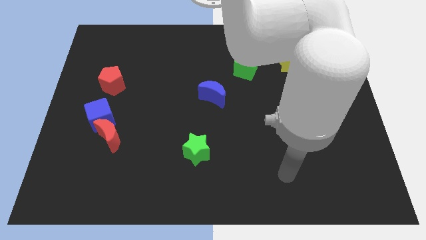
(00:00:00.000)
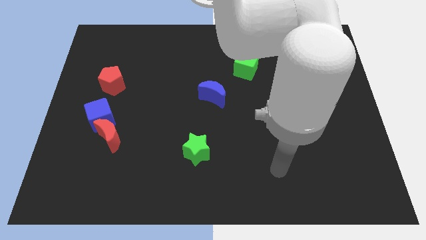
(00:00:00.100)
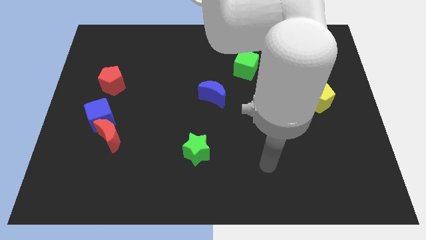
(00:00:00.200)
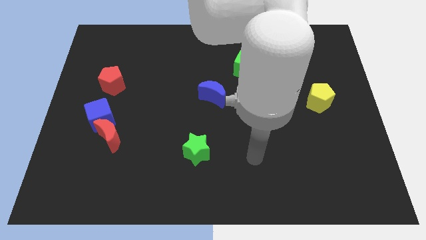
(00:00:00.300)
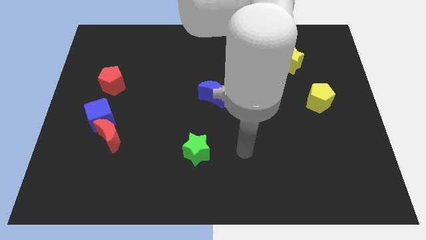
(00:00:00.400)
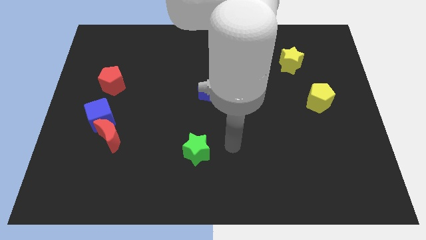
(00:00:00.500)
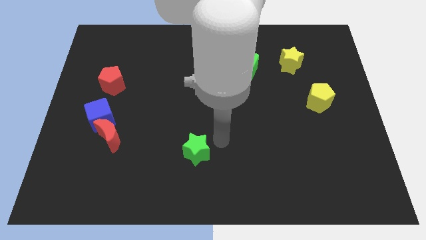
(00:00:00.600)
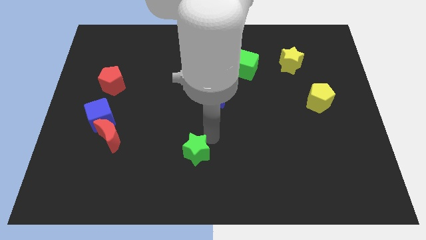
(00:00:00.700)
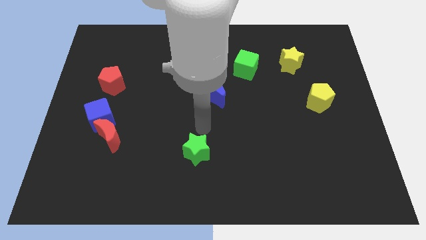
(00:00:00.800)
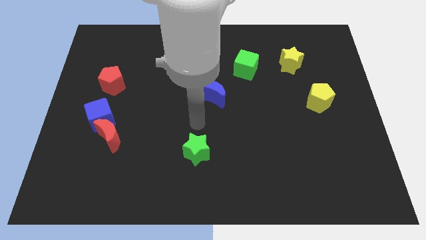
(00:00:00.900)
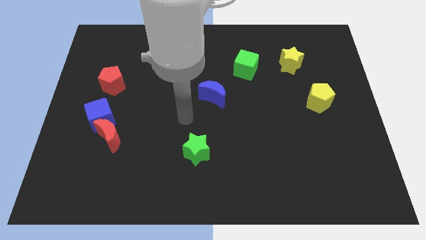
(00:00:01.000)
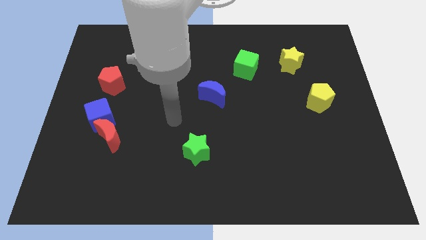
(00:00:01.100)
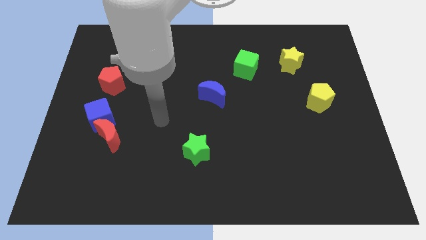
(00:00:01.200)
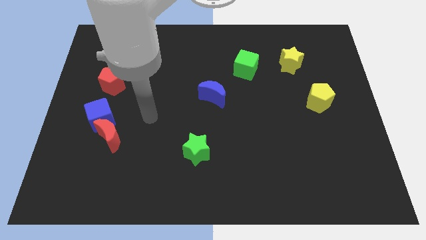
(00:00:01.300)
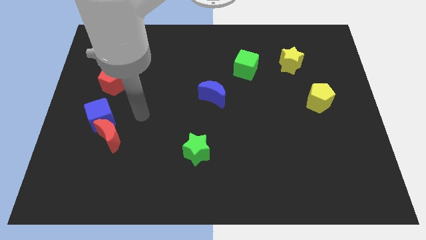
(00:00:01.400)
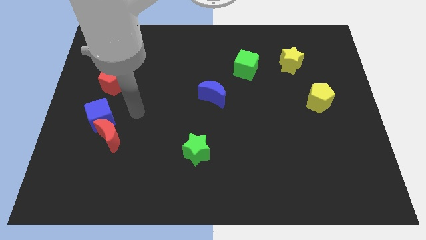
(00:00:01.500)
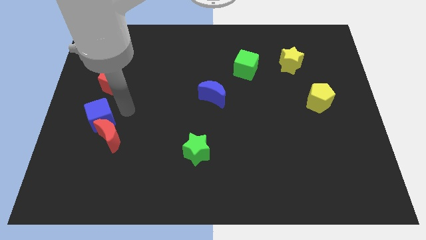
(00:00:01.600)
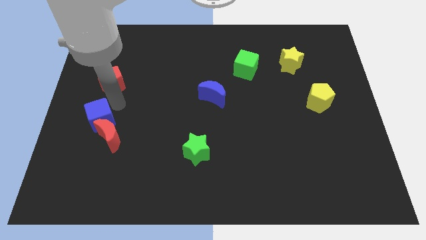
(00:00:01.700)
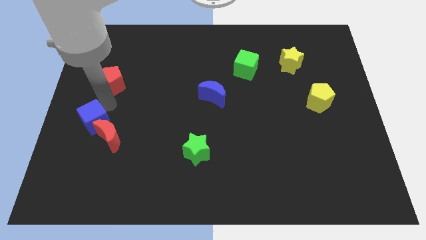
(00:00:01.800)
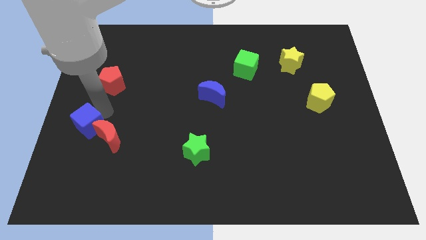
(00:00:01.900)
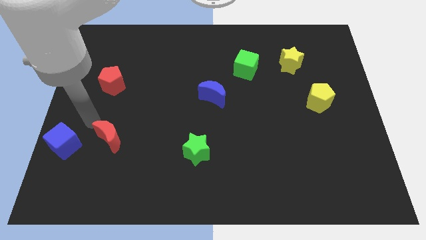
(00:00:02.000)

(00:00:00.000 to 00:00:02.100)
pull the red moon apart from the blue cube

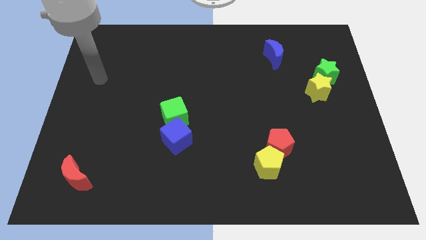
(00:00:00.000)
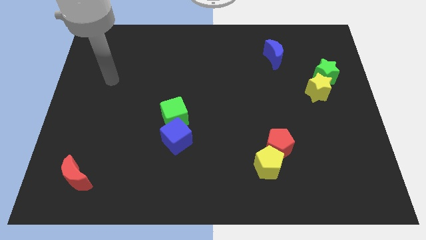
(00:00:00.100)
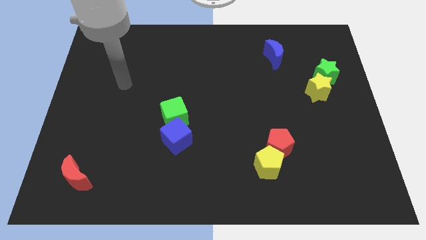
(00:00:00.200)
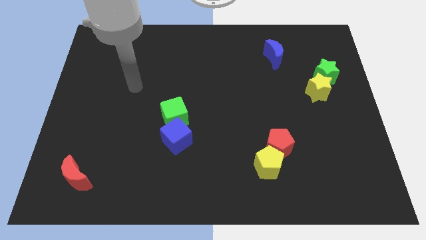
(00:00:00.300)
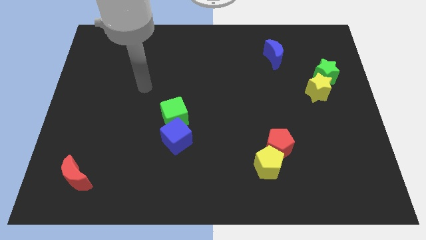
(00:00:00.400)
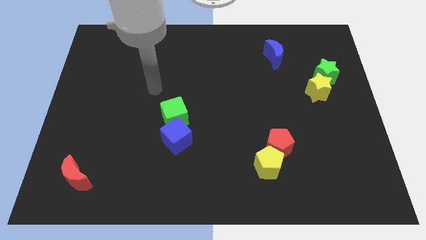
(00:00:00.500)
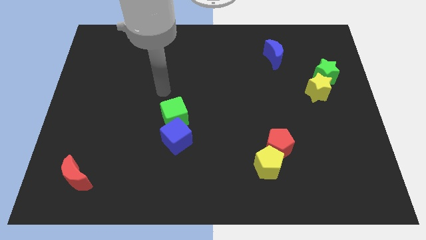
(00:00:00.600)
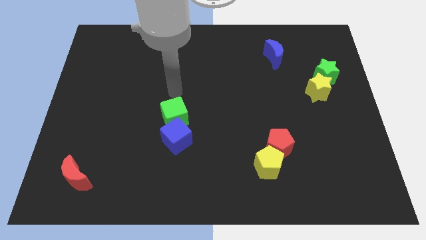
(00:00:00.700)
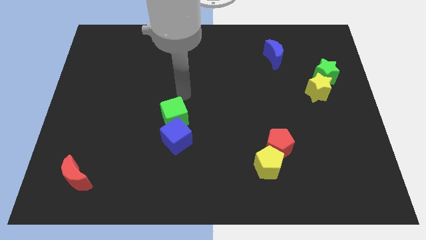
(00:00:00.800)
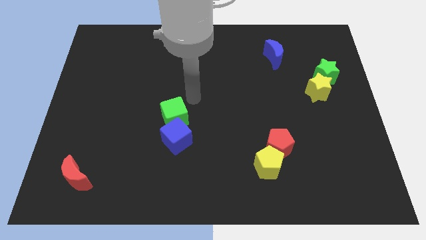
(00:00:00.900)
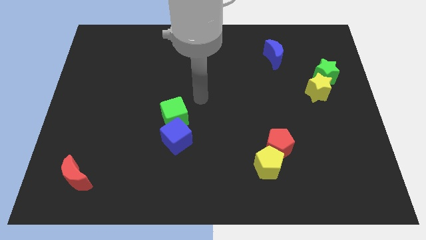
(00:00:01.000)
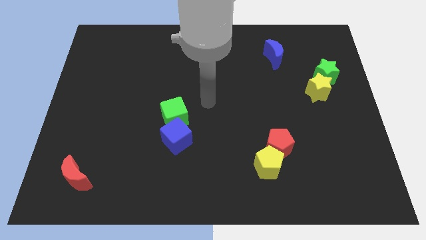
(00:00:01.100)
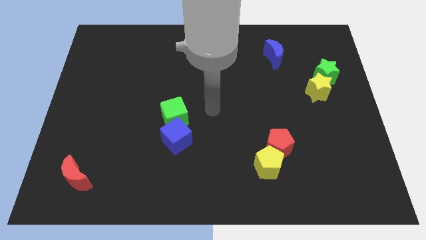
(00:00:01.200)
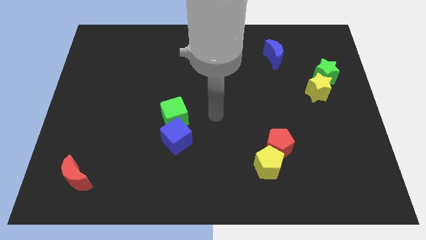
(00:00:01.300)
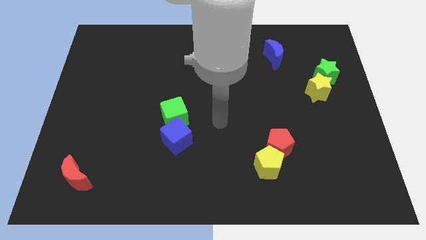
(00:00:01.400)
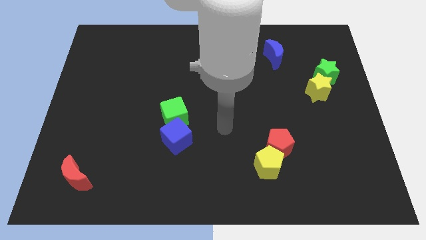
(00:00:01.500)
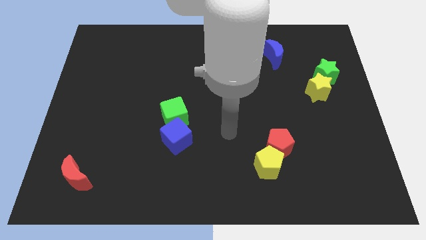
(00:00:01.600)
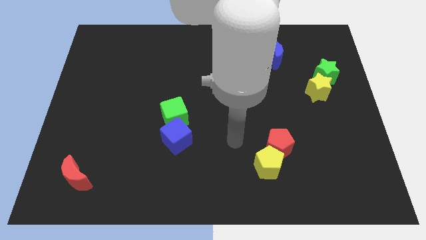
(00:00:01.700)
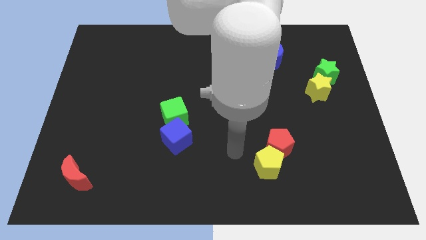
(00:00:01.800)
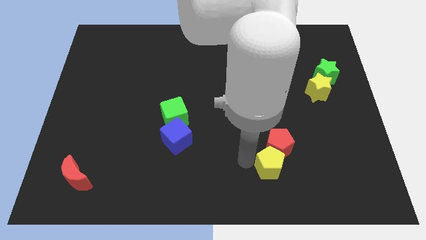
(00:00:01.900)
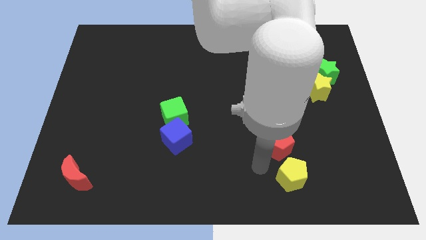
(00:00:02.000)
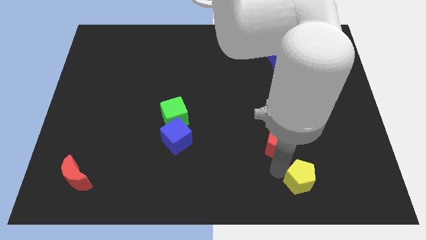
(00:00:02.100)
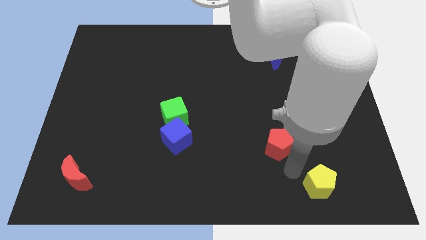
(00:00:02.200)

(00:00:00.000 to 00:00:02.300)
move the red pentagon away from the yellow pentagon

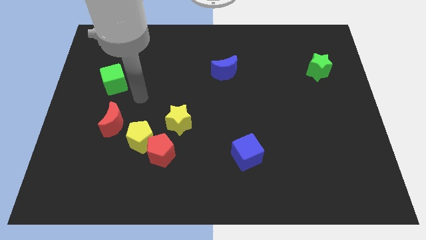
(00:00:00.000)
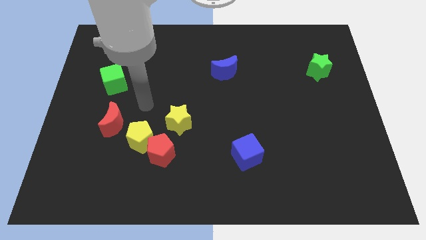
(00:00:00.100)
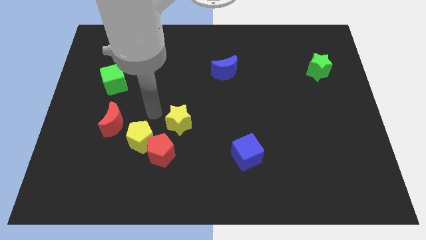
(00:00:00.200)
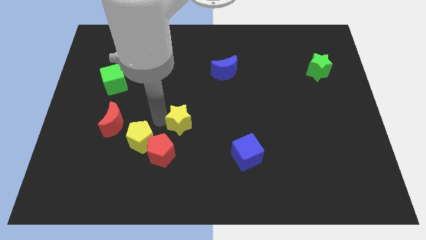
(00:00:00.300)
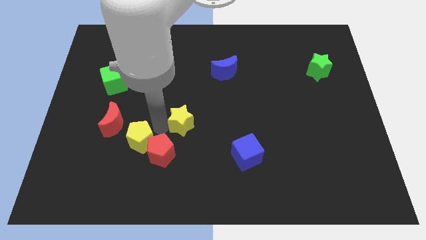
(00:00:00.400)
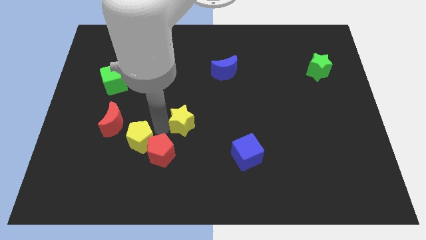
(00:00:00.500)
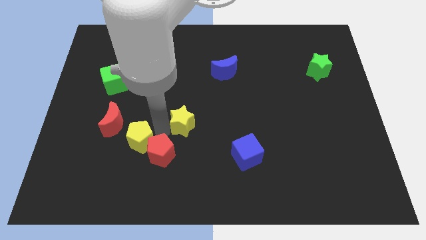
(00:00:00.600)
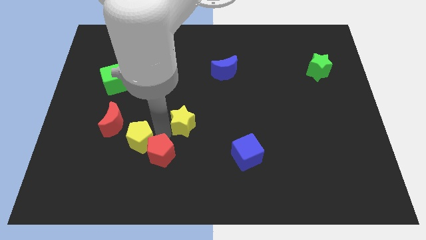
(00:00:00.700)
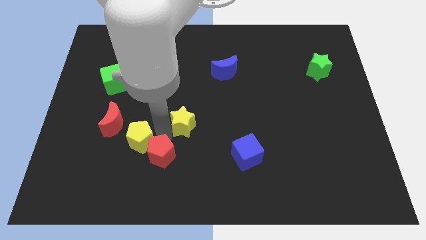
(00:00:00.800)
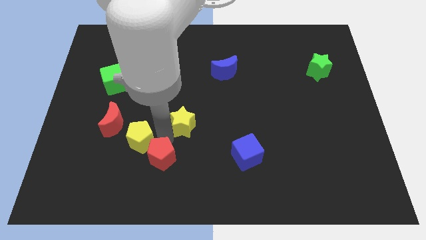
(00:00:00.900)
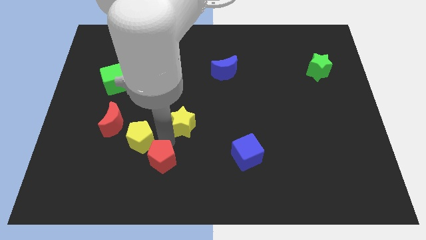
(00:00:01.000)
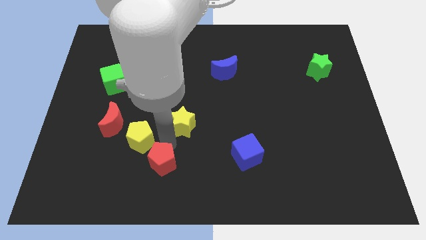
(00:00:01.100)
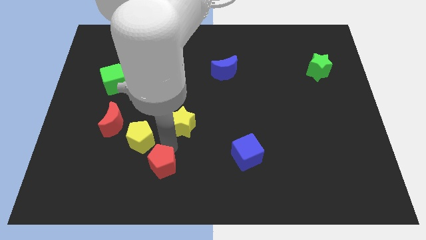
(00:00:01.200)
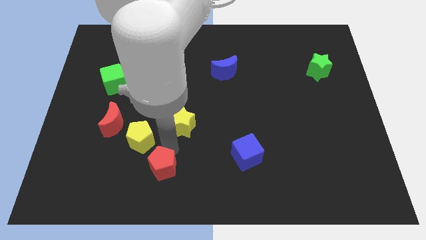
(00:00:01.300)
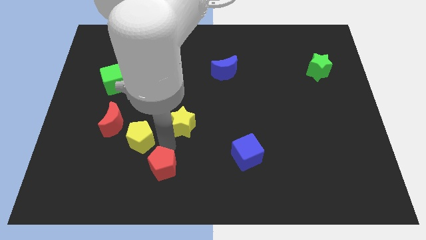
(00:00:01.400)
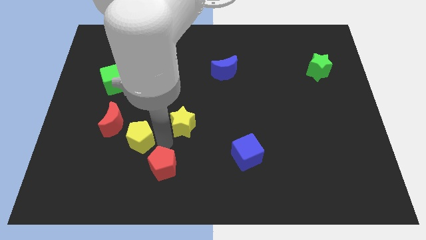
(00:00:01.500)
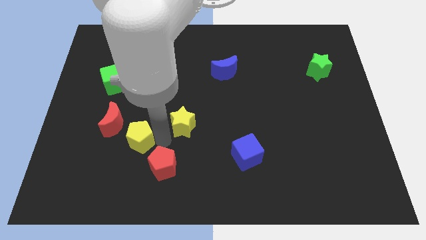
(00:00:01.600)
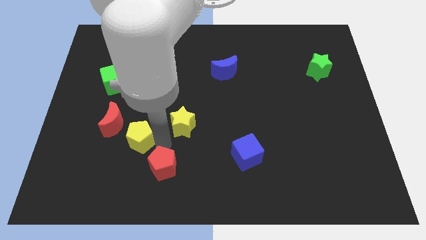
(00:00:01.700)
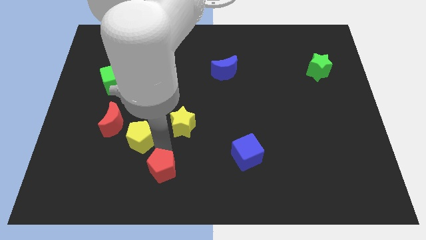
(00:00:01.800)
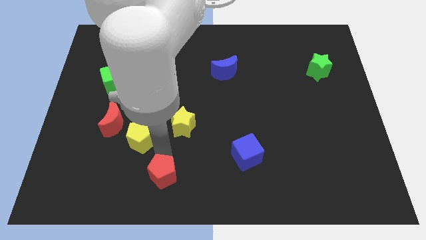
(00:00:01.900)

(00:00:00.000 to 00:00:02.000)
move the red pentagon away from the yellow pentagon and yellow star

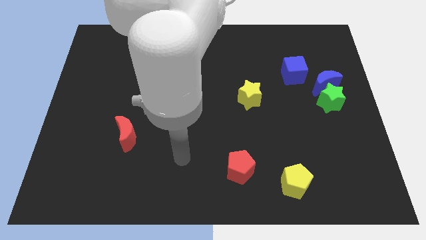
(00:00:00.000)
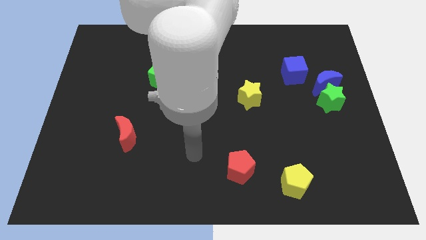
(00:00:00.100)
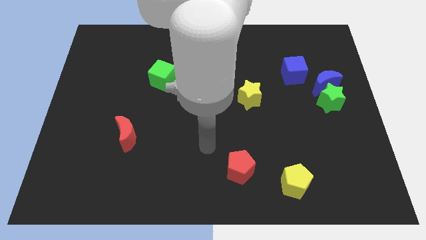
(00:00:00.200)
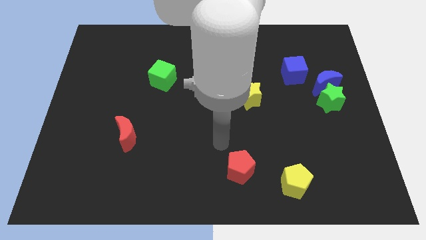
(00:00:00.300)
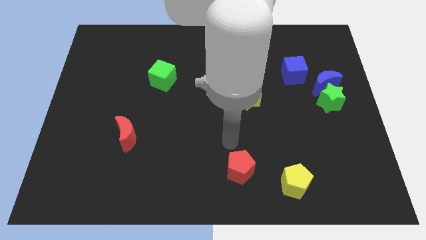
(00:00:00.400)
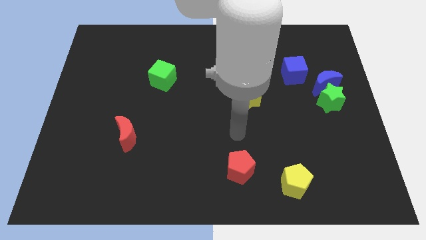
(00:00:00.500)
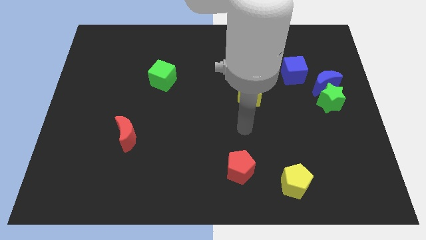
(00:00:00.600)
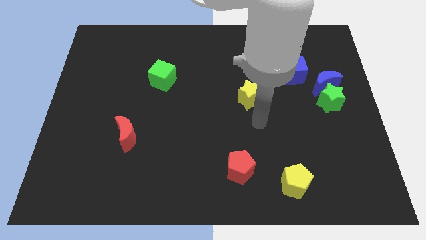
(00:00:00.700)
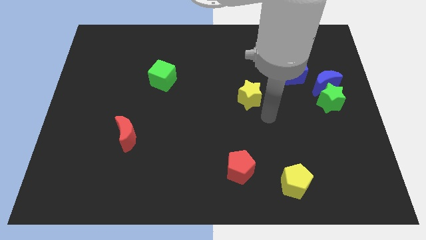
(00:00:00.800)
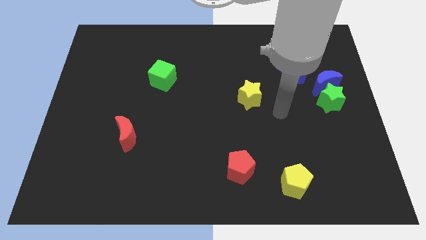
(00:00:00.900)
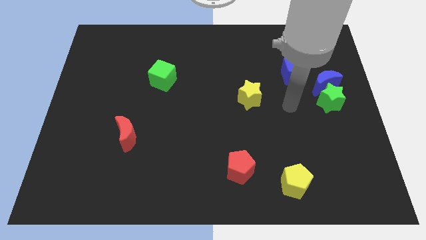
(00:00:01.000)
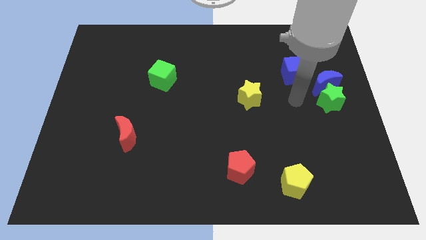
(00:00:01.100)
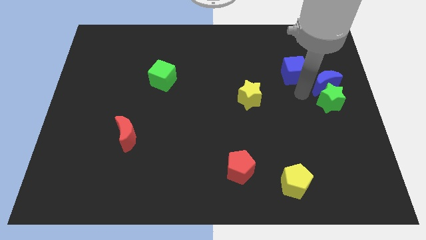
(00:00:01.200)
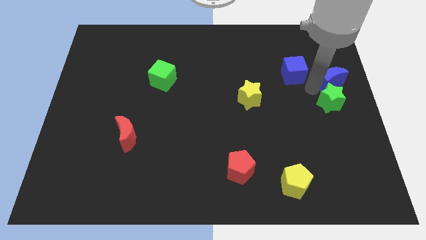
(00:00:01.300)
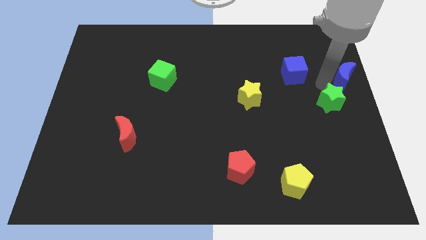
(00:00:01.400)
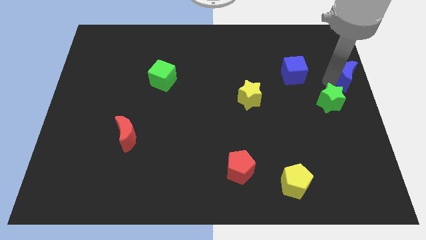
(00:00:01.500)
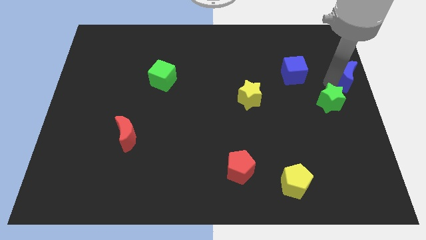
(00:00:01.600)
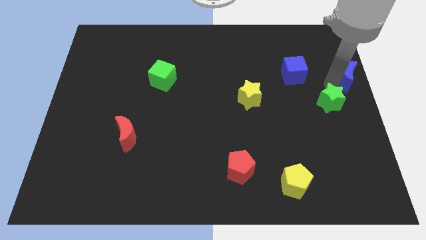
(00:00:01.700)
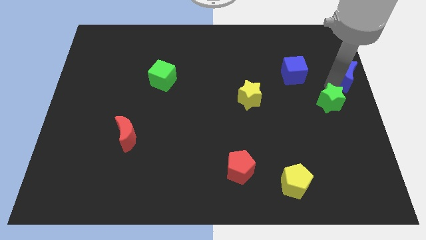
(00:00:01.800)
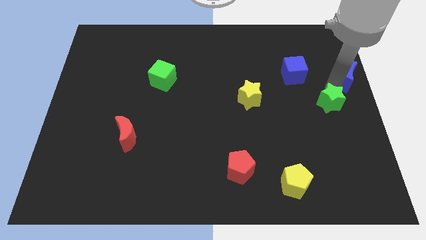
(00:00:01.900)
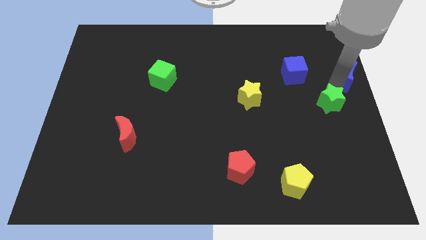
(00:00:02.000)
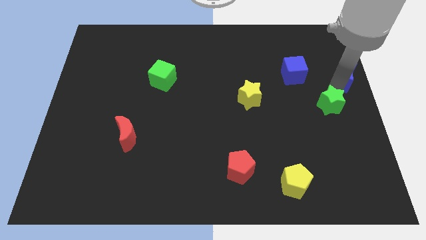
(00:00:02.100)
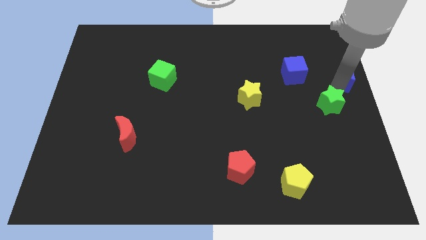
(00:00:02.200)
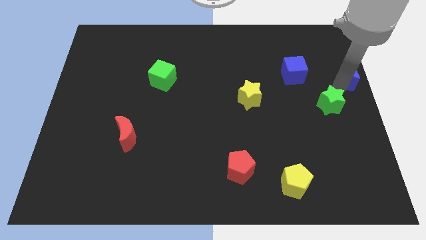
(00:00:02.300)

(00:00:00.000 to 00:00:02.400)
separate the green star from the blue moon

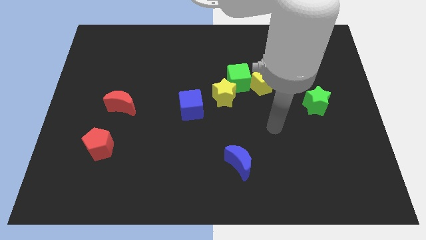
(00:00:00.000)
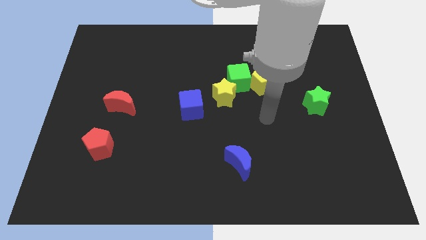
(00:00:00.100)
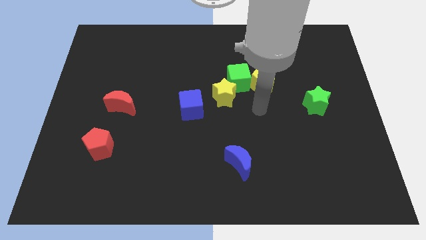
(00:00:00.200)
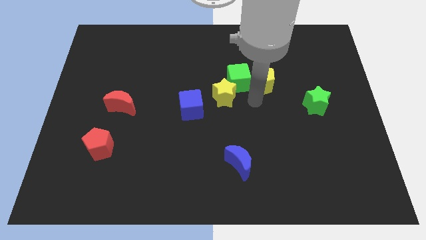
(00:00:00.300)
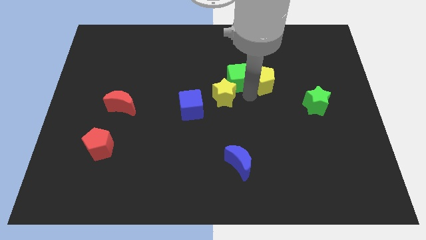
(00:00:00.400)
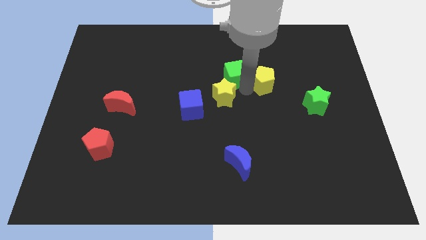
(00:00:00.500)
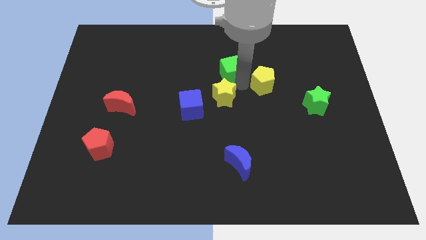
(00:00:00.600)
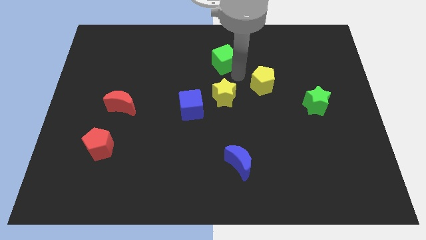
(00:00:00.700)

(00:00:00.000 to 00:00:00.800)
move the yellow pentagon away from the green cube
